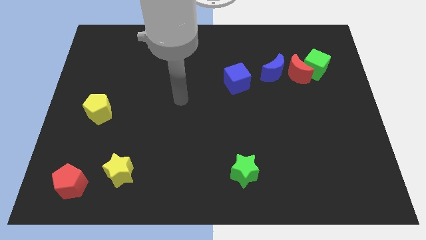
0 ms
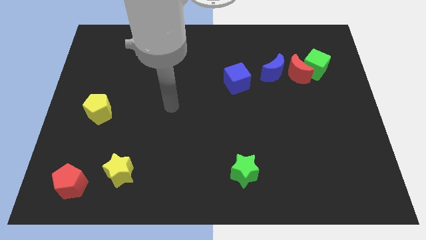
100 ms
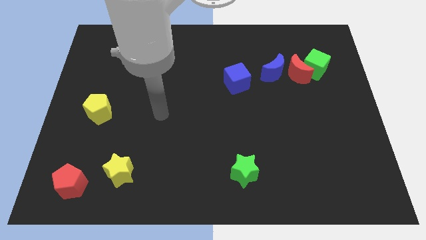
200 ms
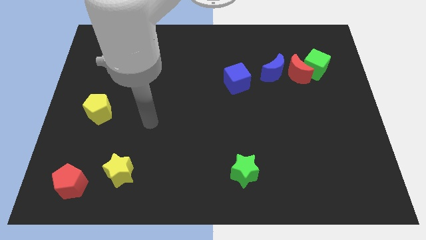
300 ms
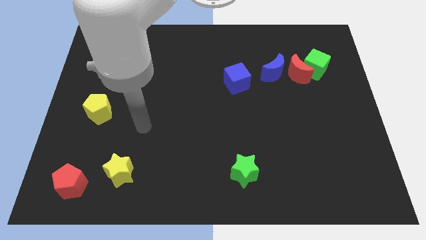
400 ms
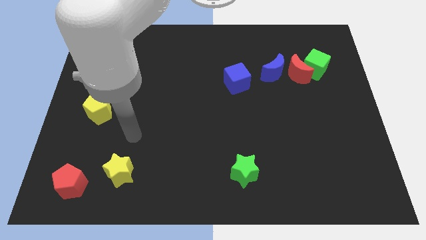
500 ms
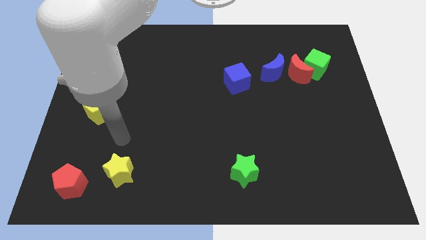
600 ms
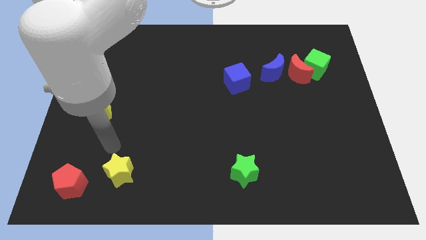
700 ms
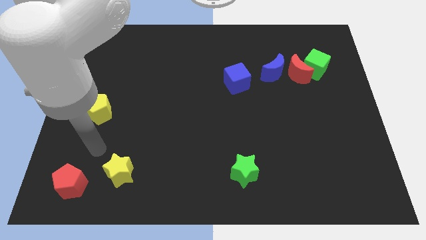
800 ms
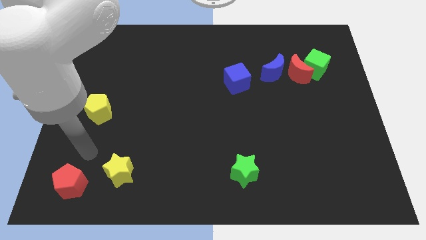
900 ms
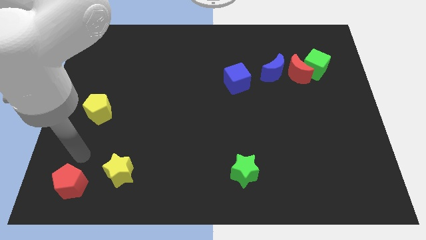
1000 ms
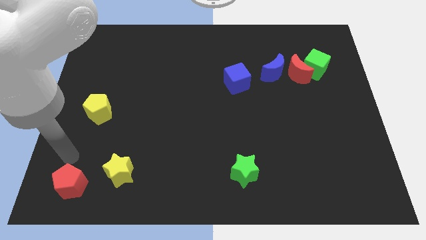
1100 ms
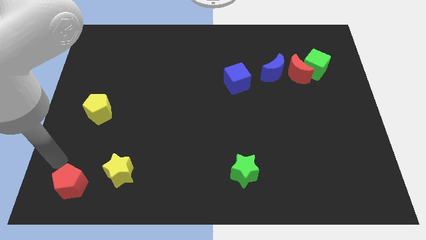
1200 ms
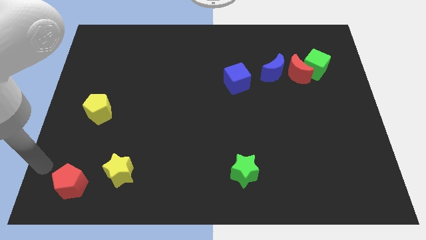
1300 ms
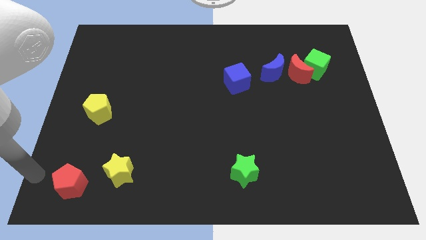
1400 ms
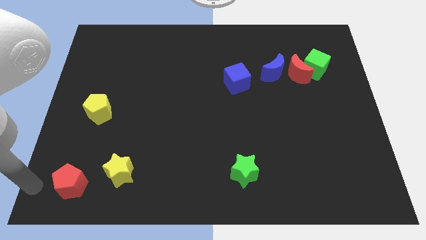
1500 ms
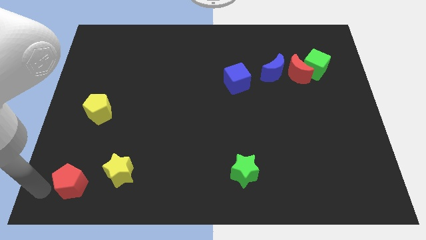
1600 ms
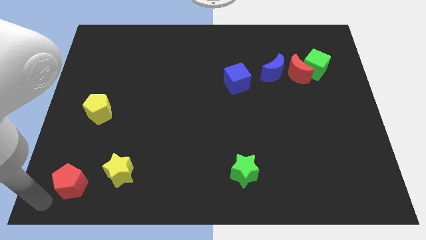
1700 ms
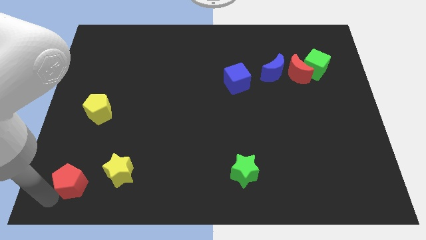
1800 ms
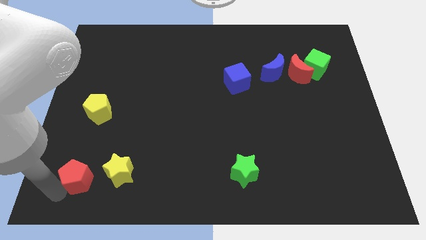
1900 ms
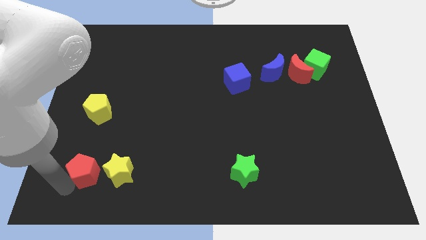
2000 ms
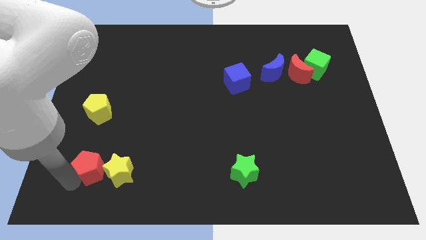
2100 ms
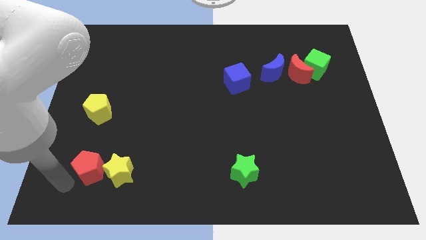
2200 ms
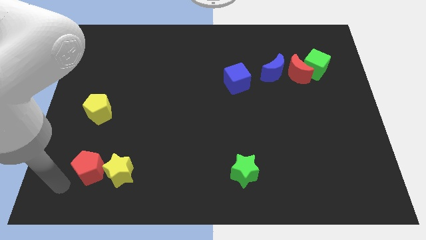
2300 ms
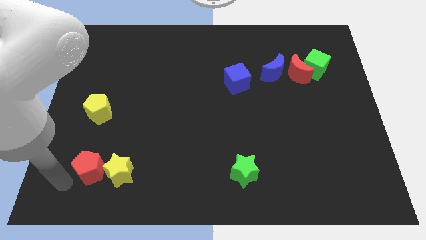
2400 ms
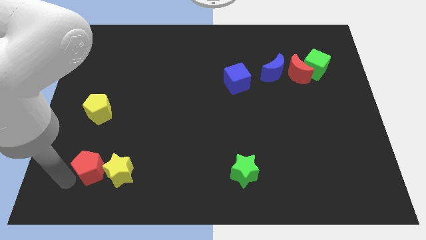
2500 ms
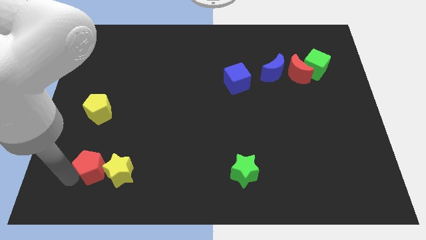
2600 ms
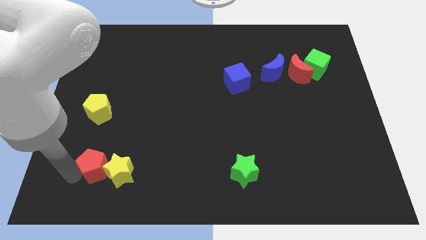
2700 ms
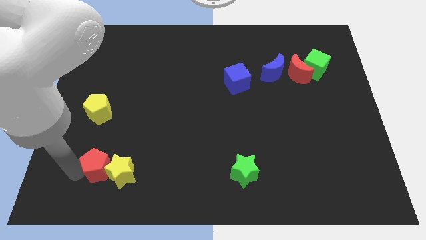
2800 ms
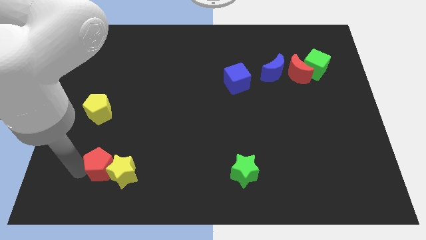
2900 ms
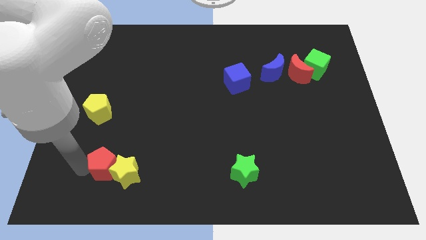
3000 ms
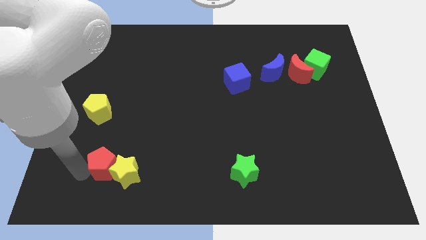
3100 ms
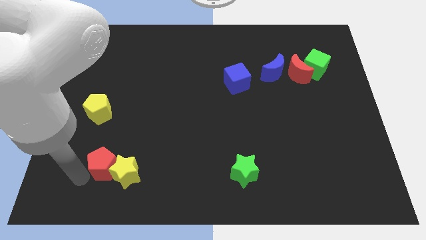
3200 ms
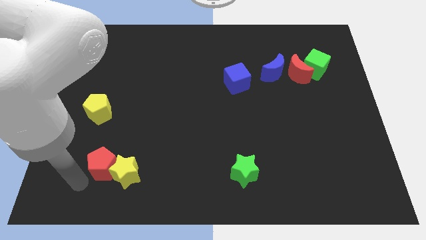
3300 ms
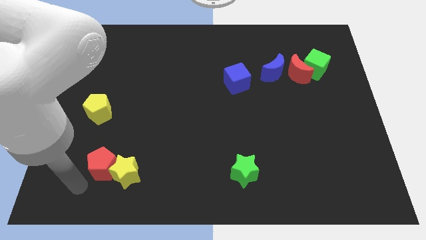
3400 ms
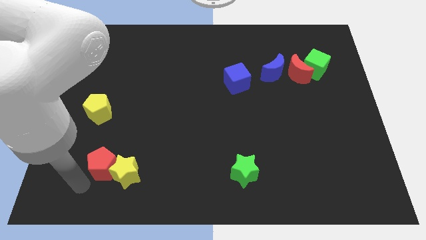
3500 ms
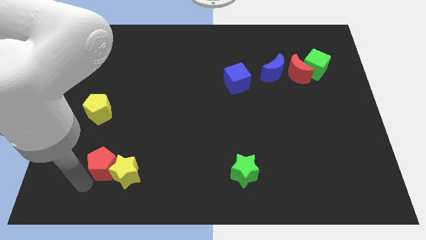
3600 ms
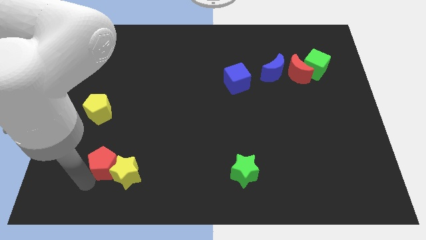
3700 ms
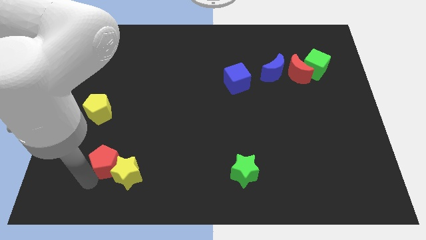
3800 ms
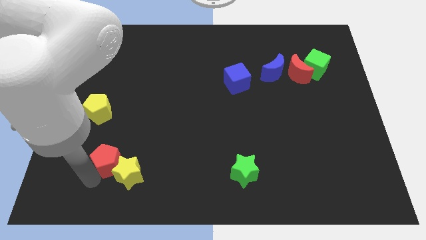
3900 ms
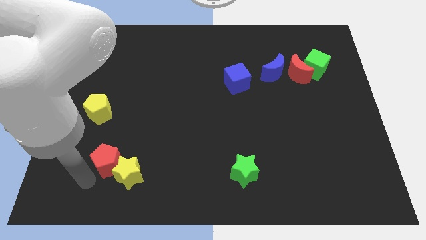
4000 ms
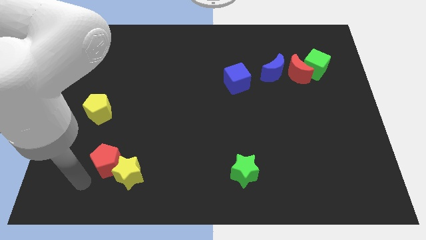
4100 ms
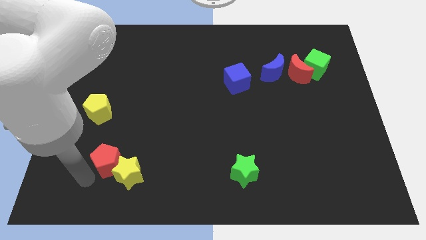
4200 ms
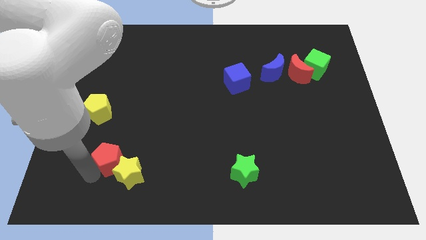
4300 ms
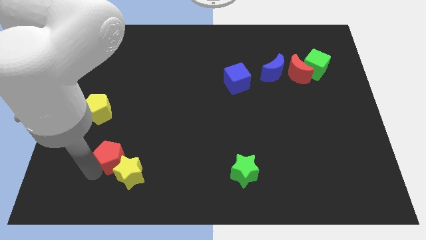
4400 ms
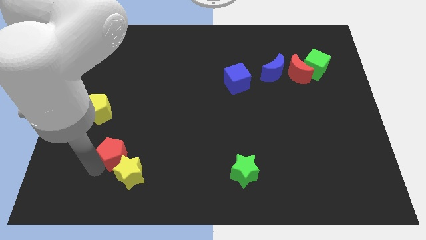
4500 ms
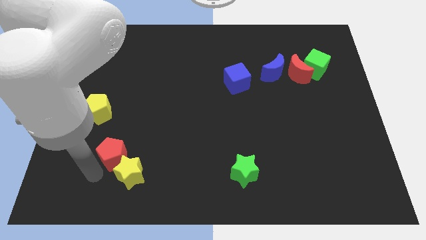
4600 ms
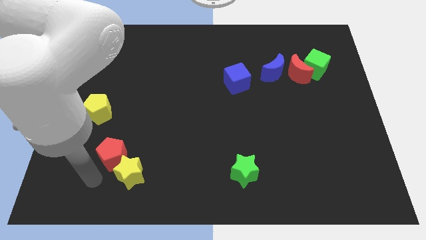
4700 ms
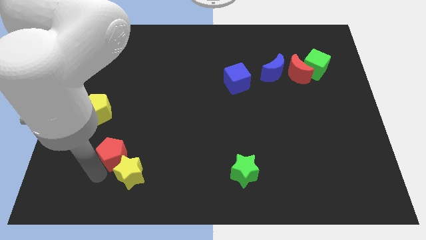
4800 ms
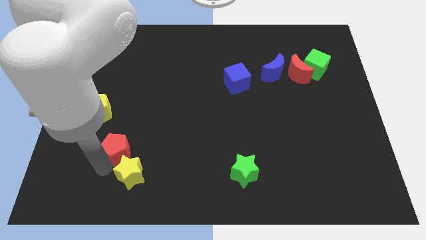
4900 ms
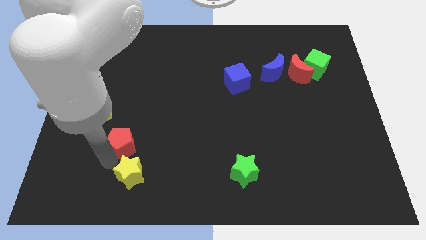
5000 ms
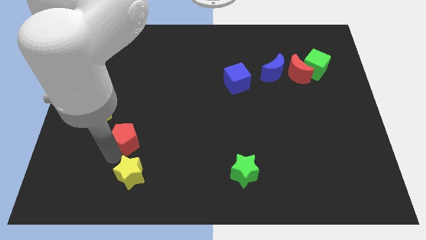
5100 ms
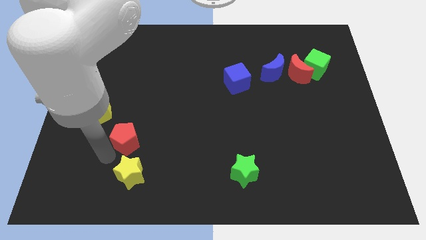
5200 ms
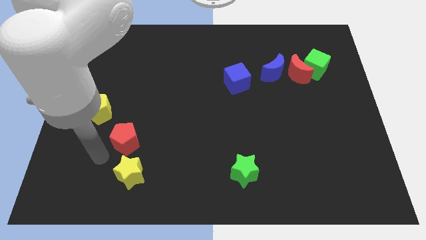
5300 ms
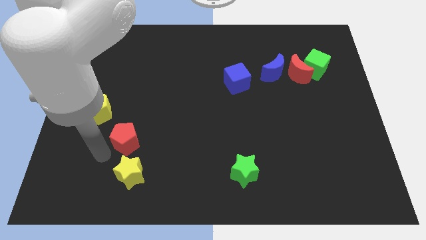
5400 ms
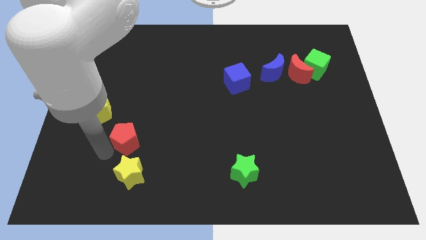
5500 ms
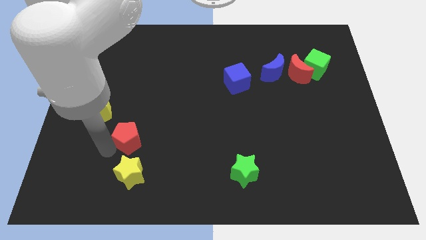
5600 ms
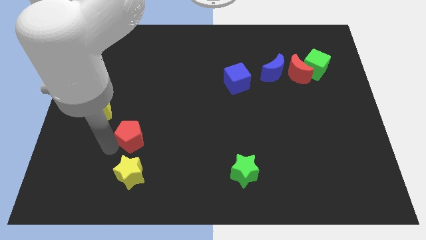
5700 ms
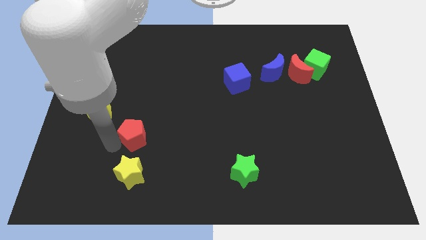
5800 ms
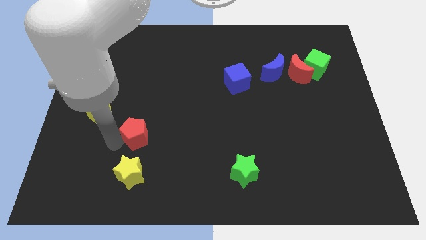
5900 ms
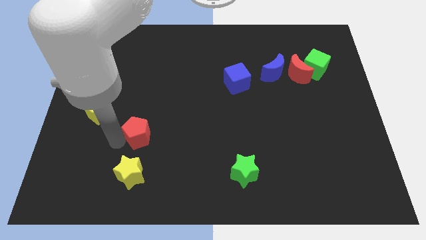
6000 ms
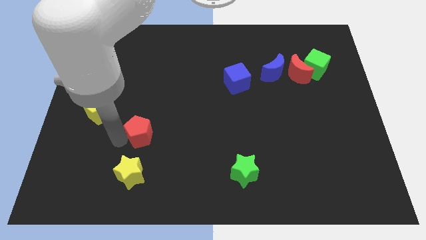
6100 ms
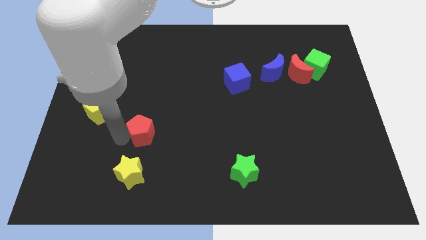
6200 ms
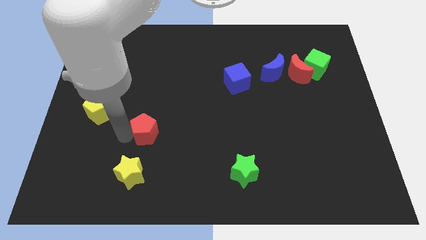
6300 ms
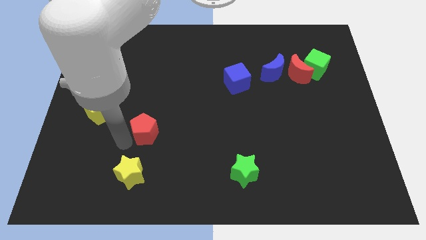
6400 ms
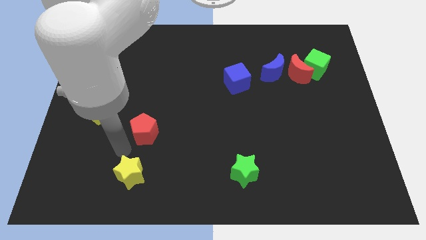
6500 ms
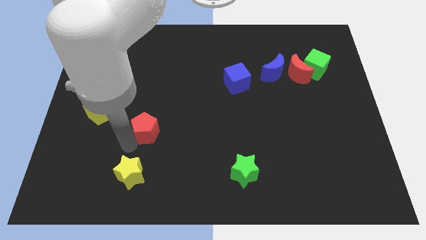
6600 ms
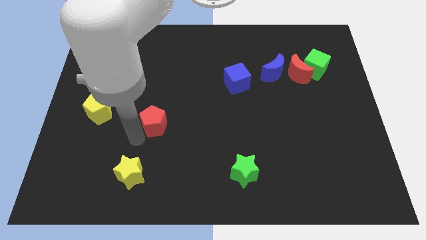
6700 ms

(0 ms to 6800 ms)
slide the red pentagon up and then to the right

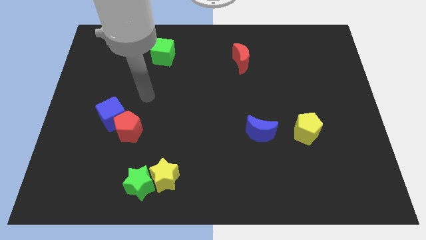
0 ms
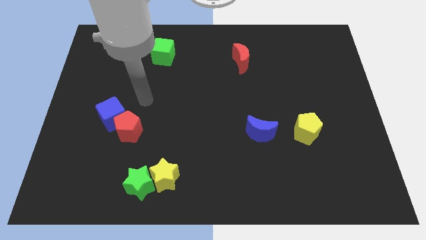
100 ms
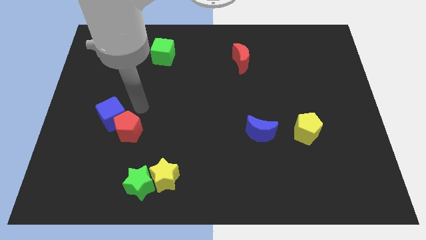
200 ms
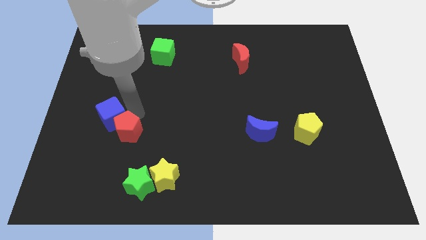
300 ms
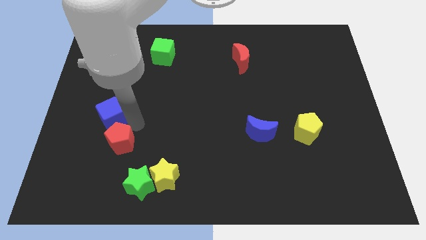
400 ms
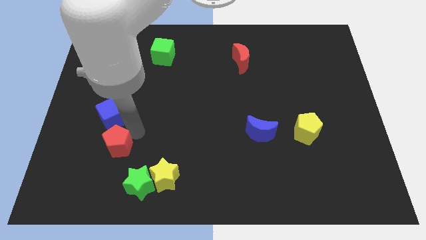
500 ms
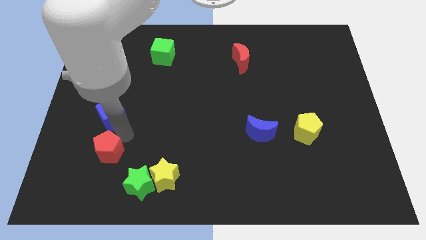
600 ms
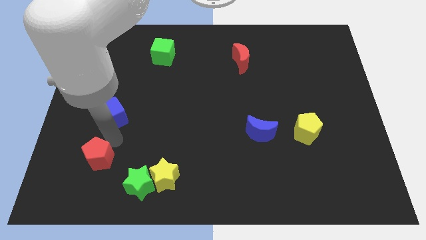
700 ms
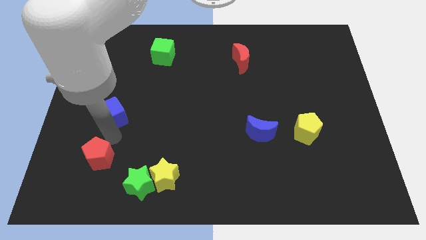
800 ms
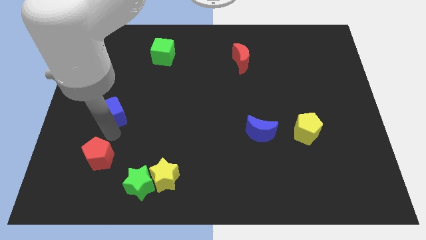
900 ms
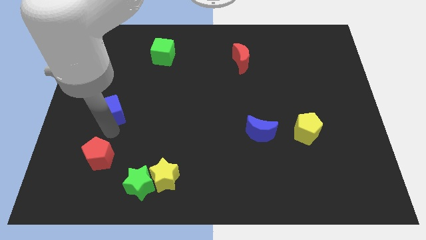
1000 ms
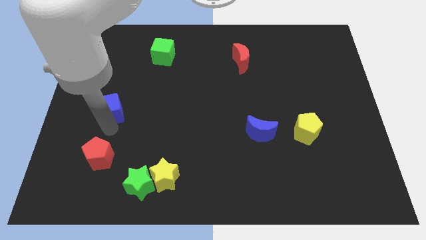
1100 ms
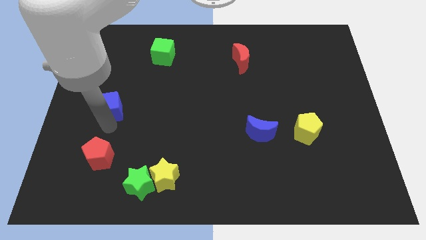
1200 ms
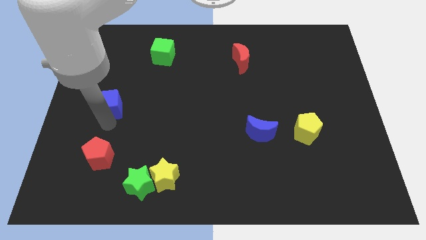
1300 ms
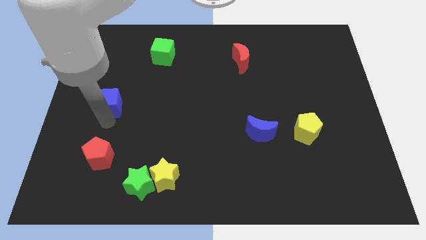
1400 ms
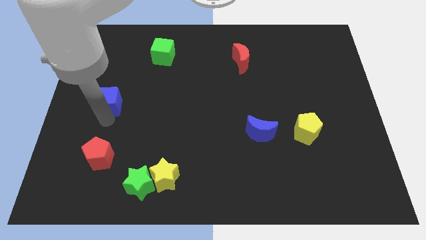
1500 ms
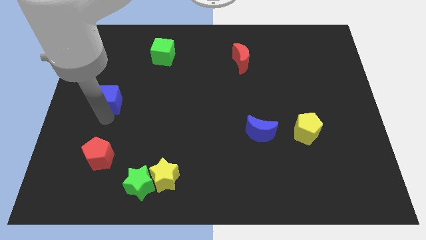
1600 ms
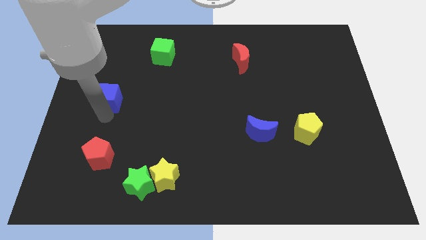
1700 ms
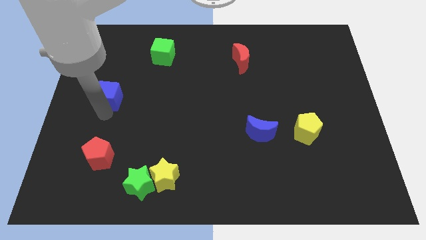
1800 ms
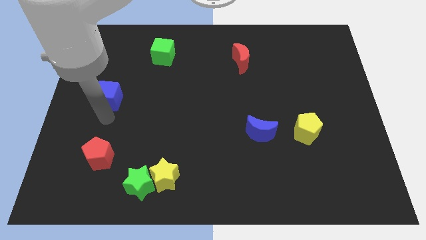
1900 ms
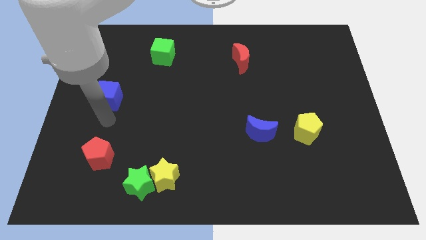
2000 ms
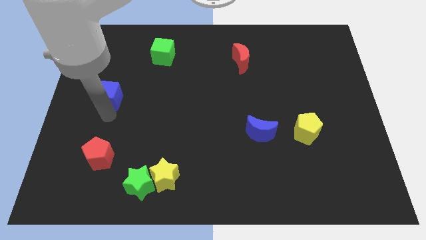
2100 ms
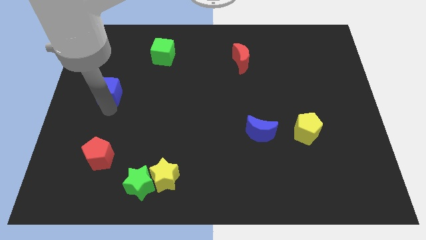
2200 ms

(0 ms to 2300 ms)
slightly move the blue cube upwards
